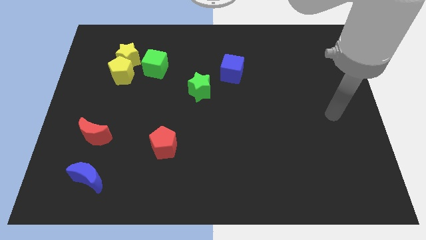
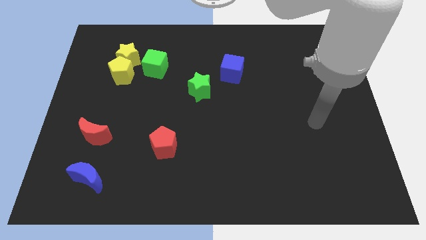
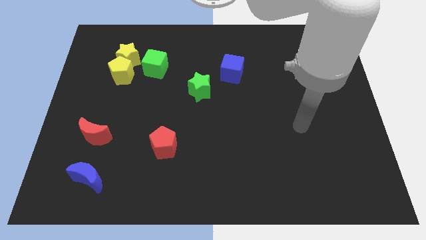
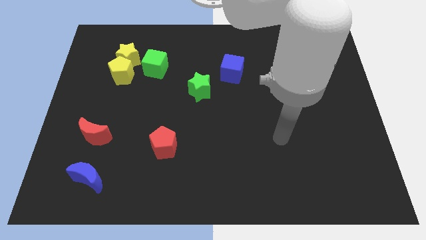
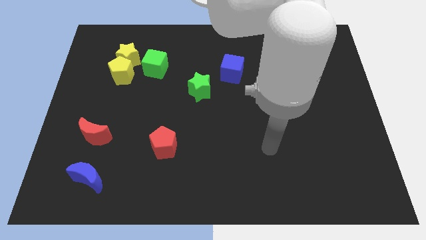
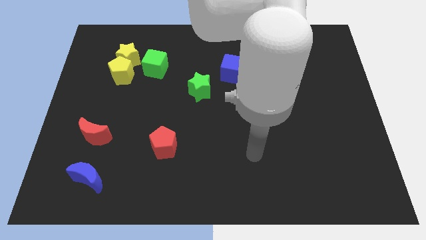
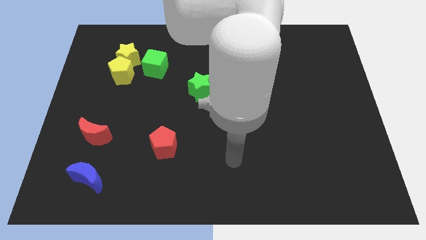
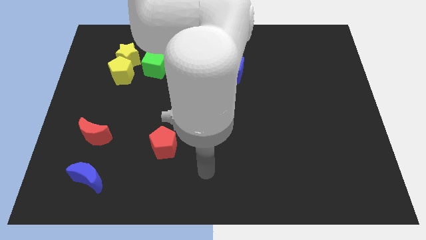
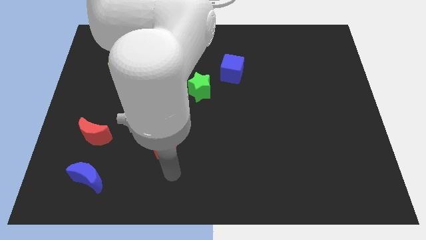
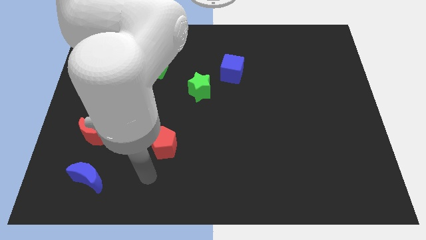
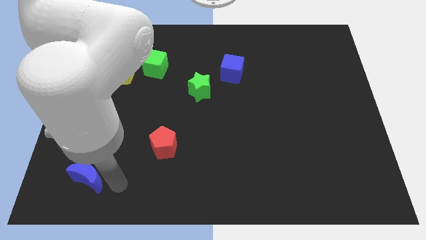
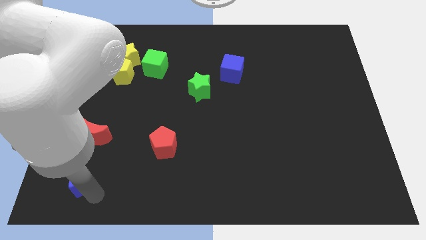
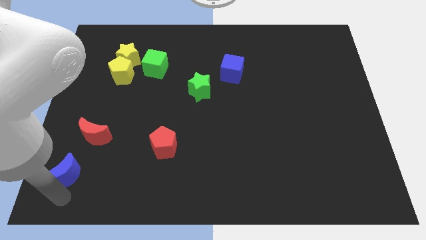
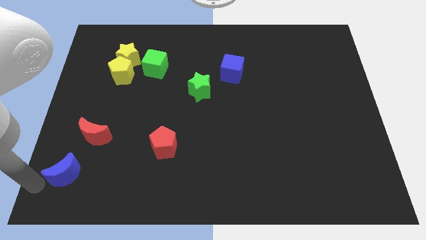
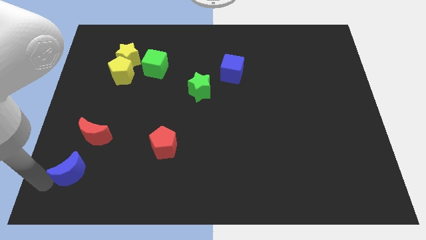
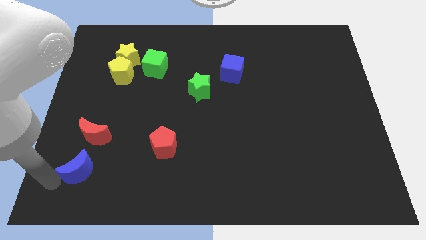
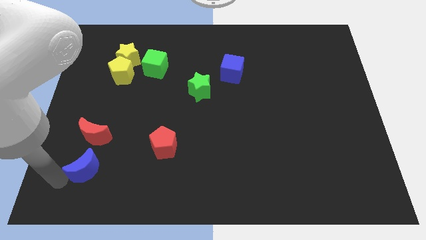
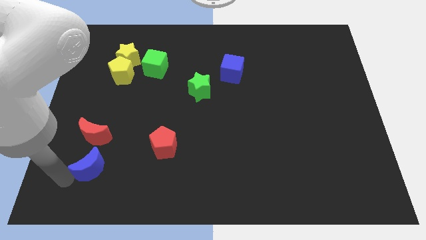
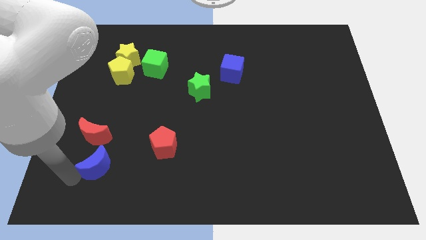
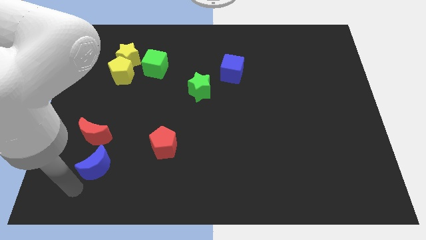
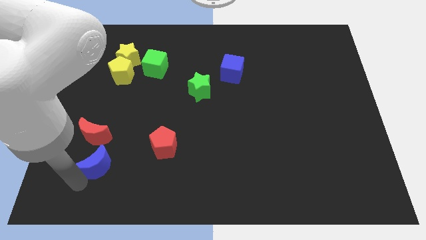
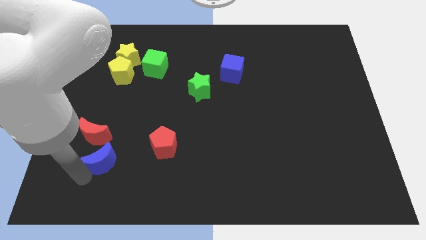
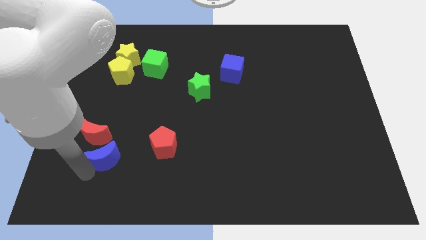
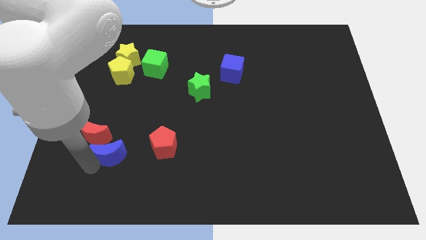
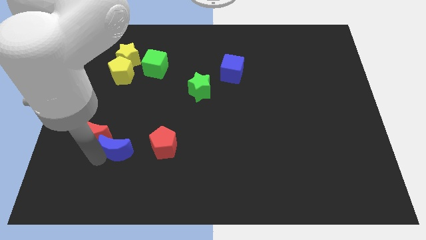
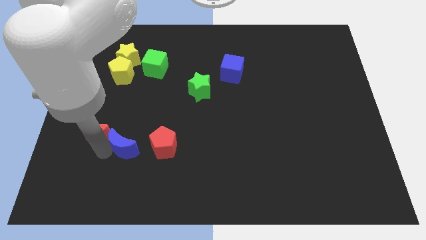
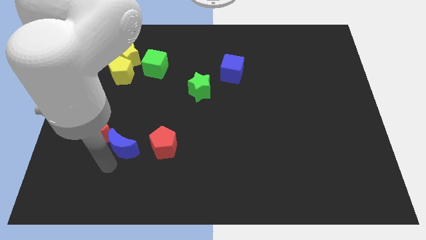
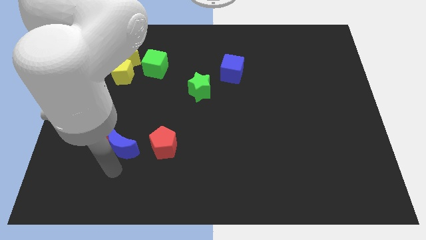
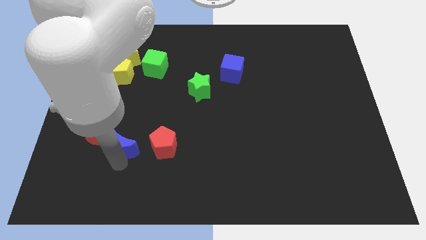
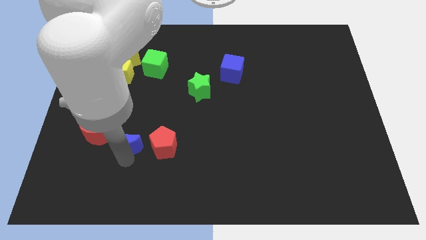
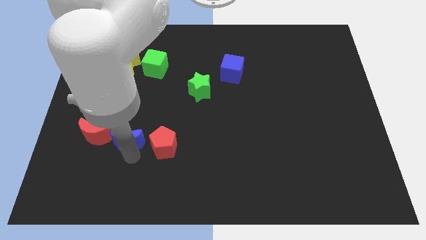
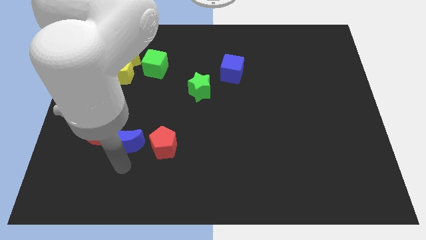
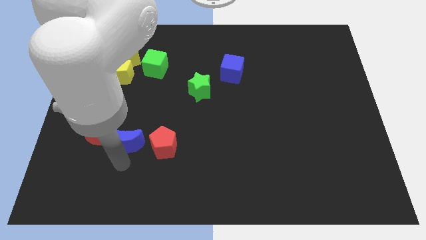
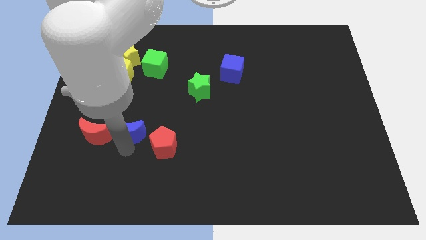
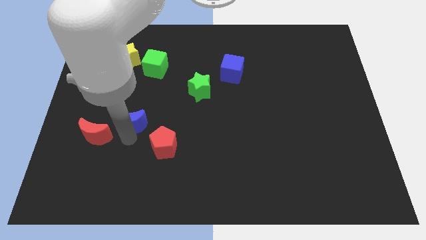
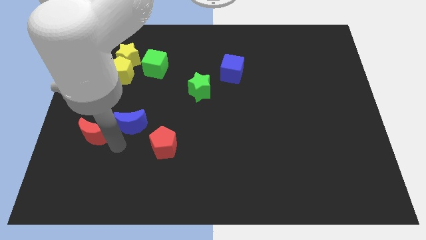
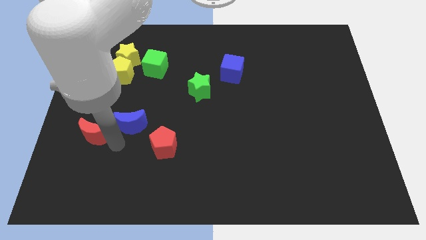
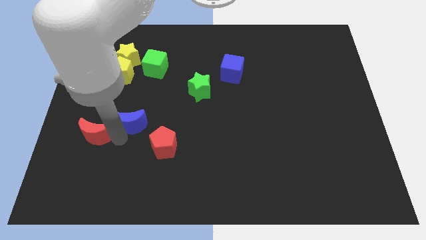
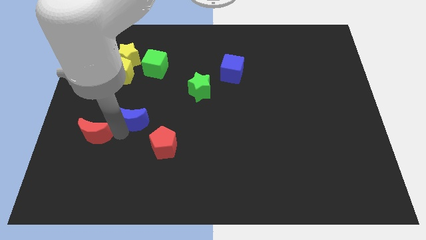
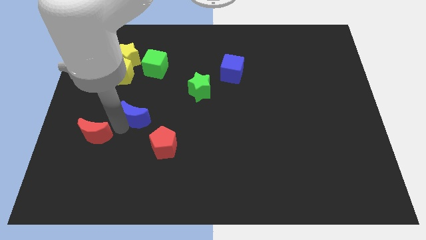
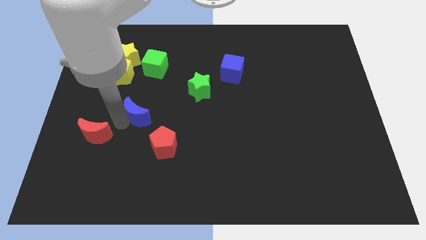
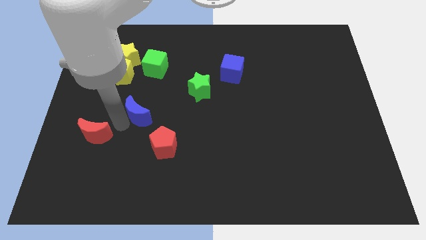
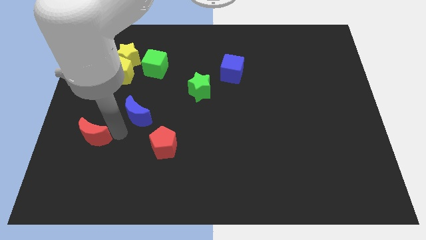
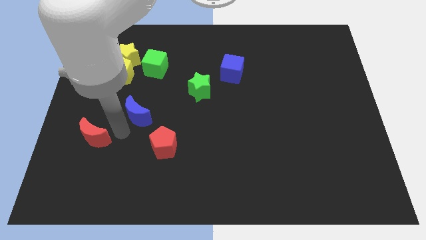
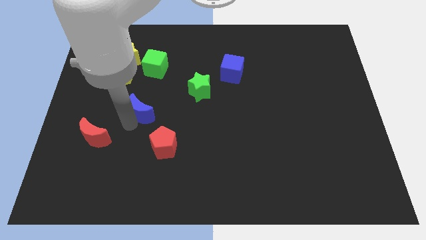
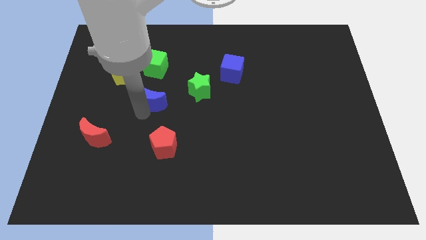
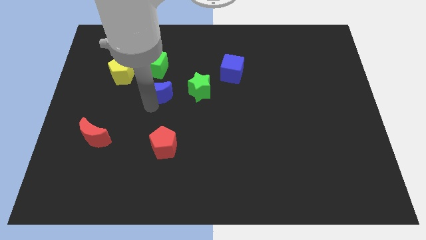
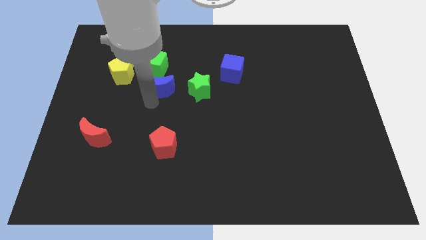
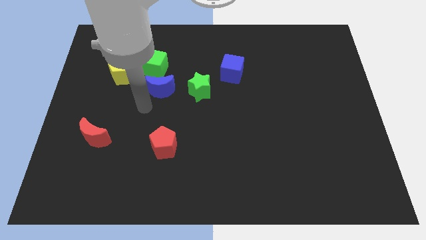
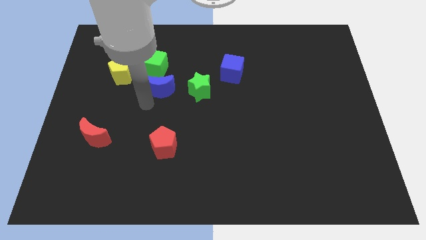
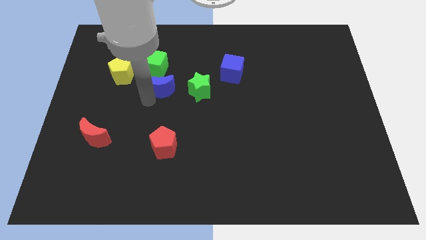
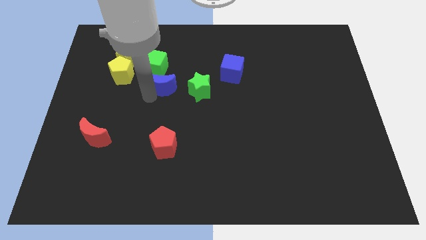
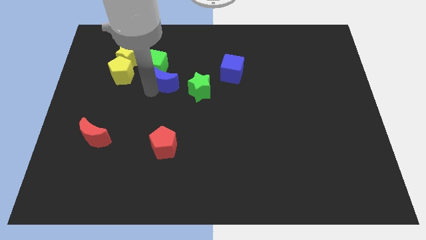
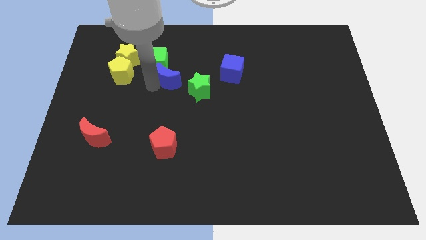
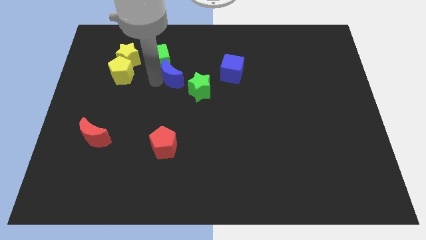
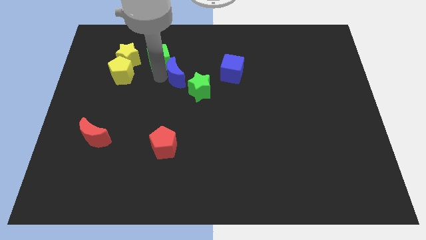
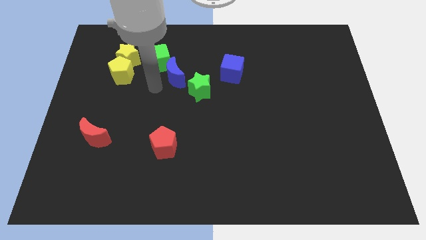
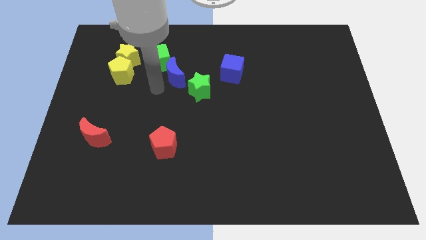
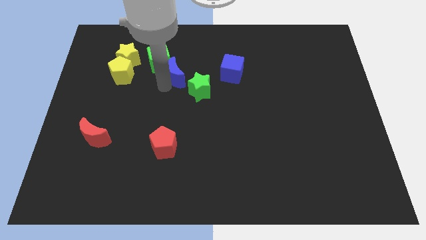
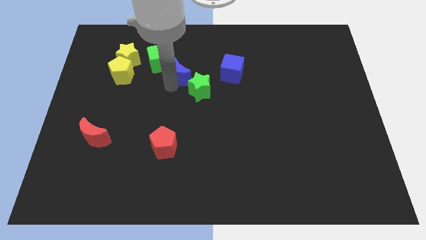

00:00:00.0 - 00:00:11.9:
move the blue moon just right of the green cube

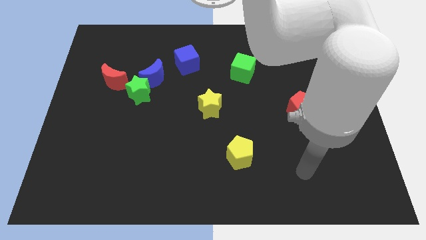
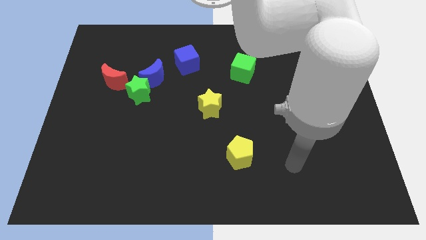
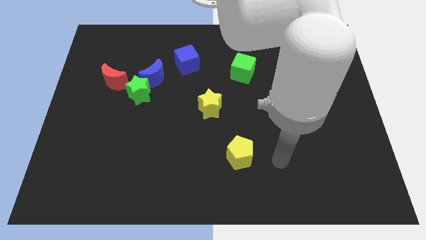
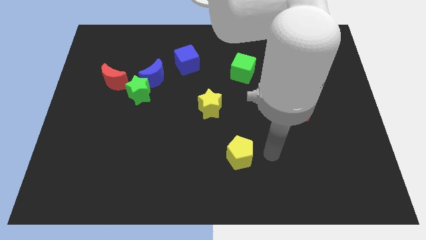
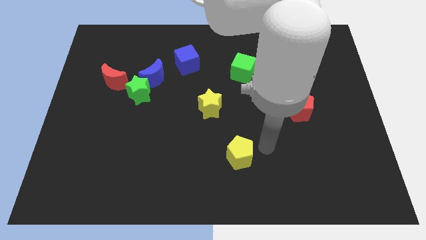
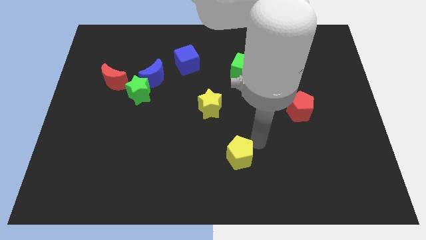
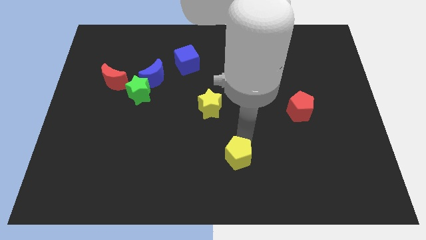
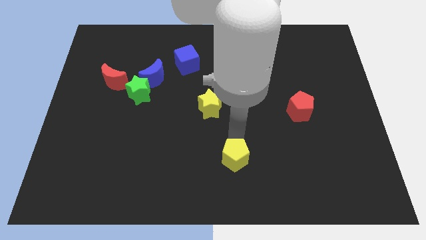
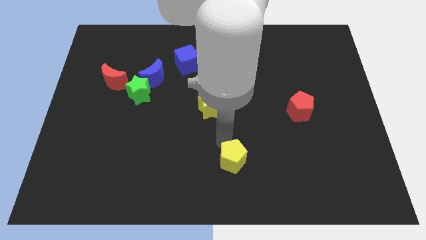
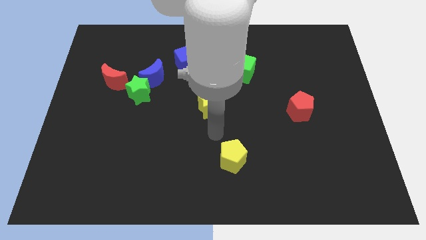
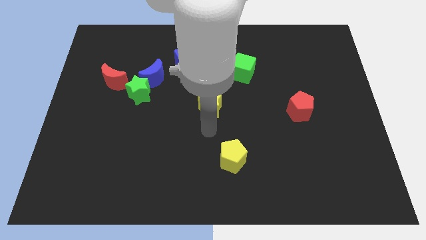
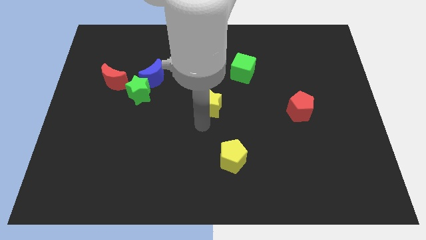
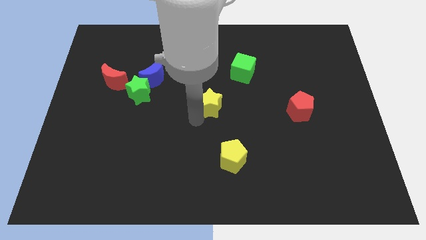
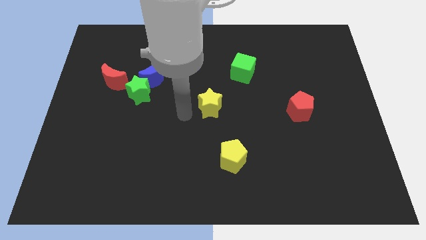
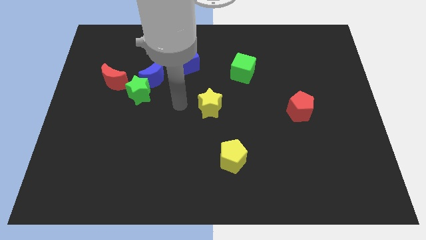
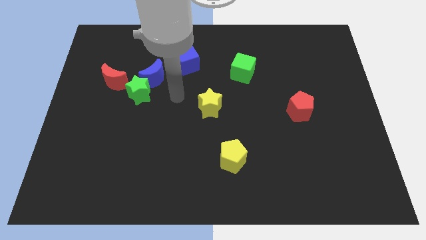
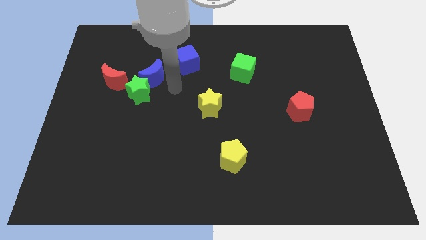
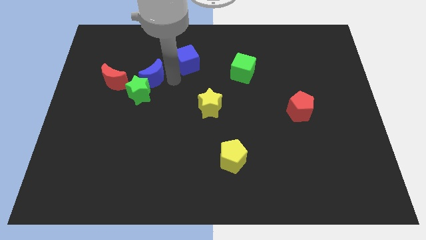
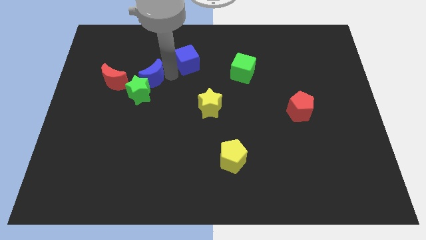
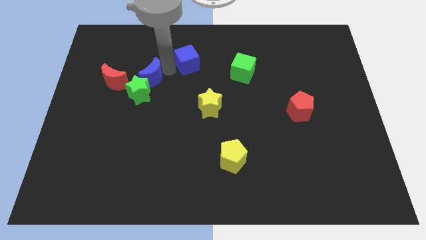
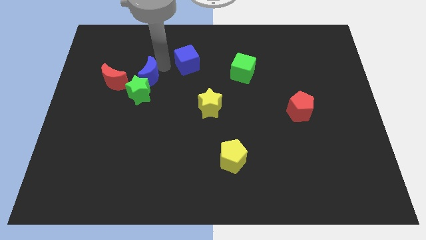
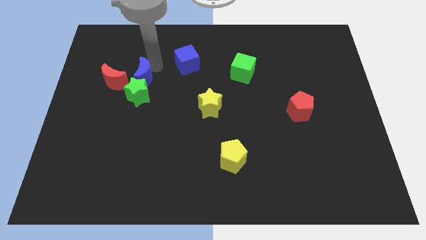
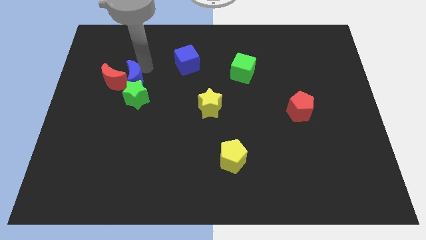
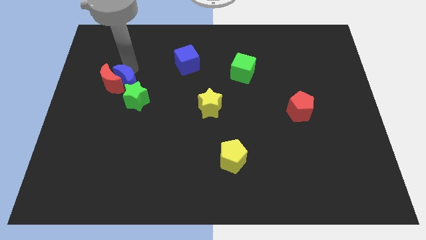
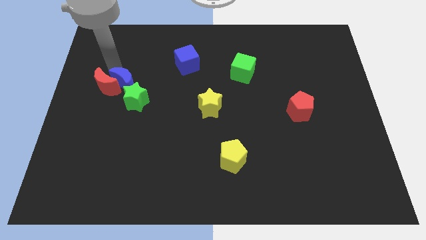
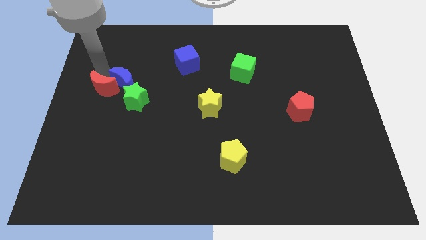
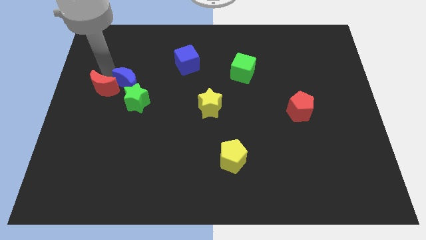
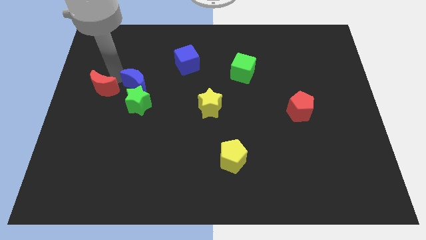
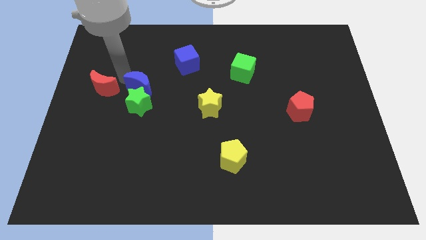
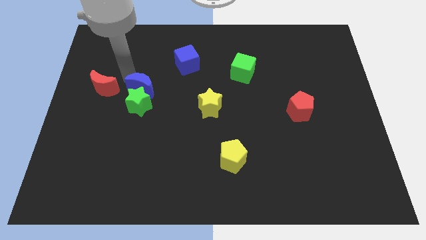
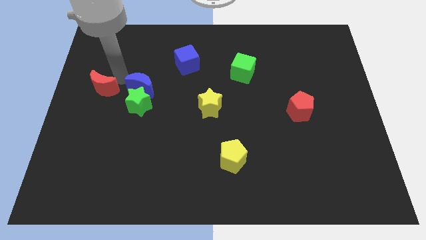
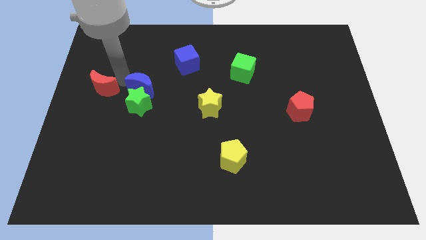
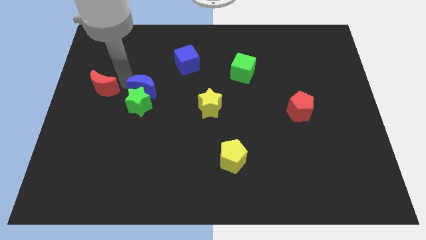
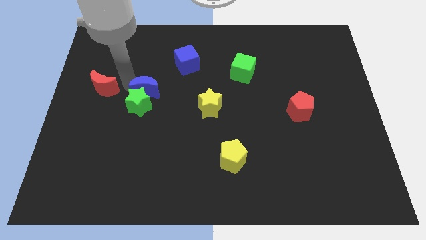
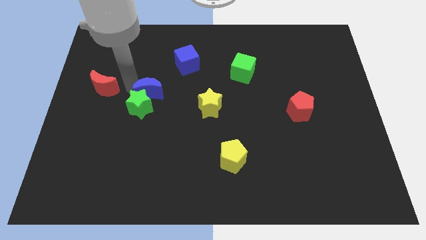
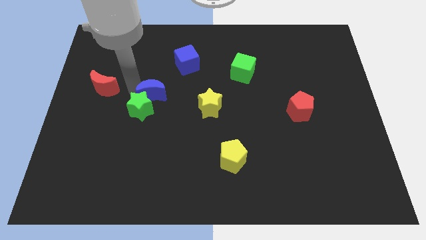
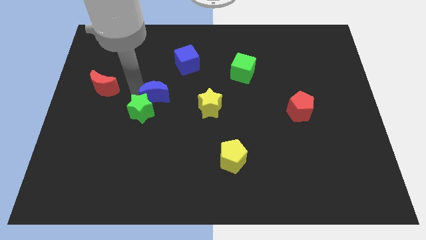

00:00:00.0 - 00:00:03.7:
put the blue moon to the right side of the green star
